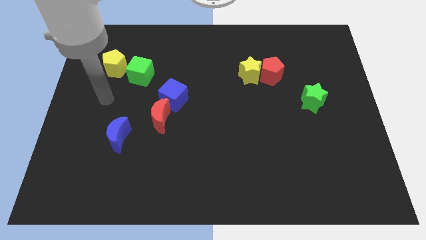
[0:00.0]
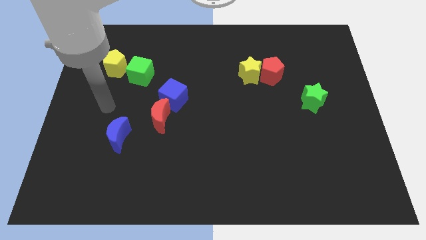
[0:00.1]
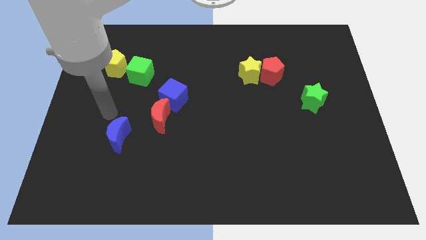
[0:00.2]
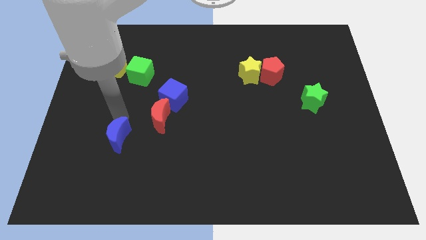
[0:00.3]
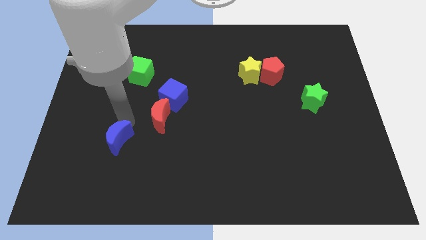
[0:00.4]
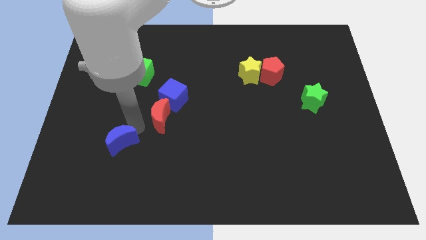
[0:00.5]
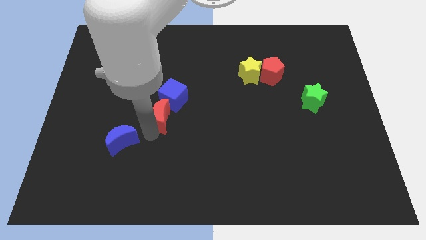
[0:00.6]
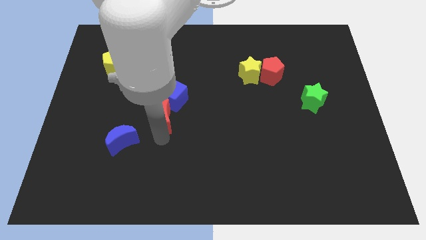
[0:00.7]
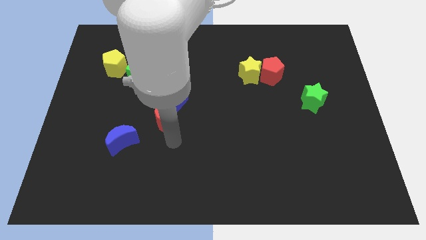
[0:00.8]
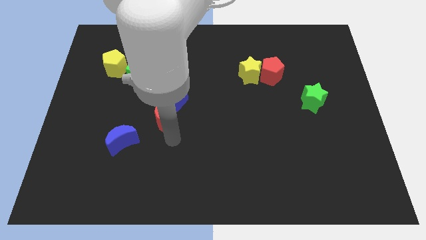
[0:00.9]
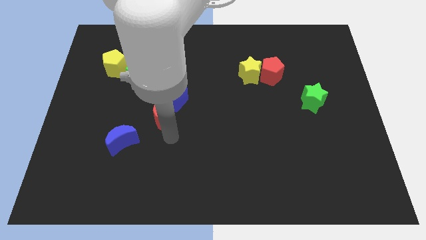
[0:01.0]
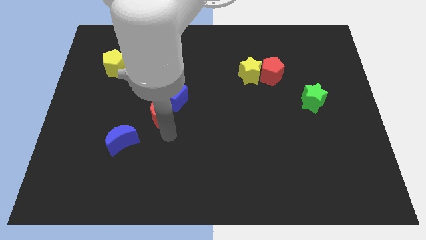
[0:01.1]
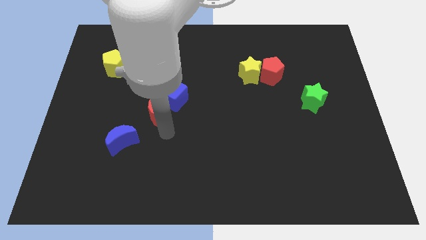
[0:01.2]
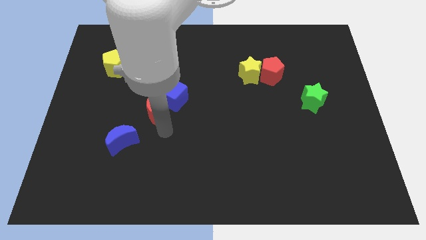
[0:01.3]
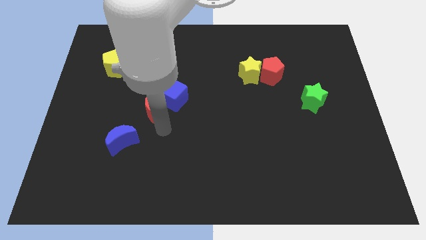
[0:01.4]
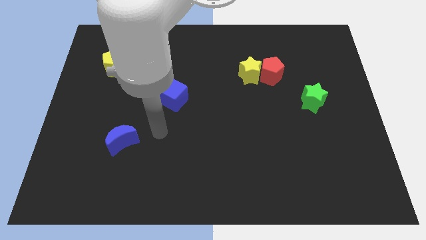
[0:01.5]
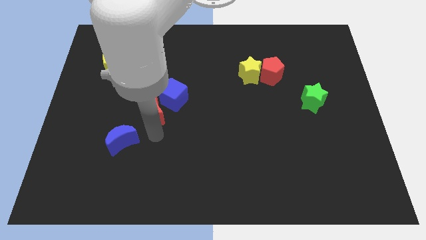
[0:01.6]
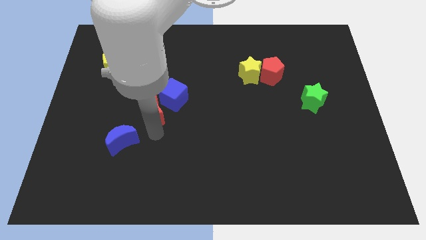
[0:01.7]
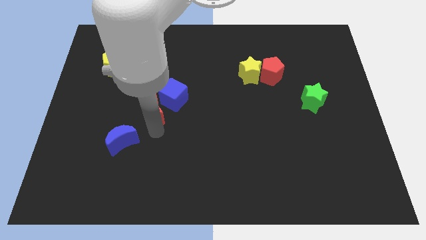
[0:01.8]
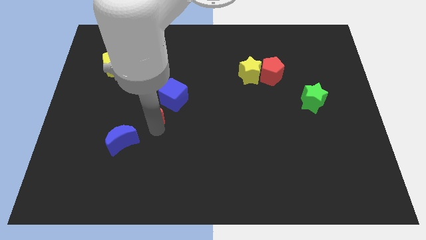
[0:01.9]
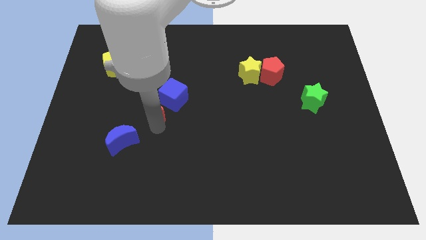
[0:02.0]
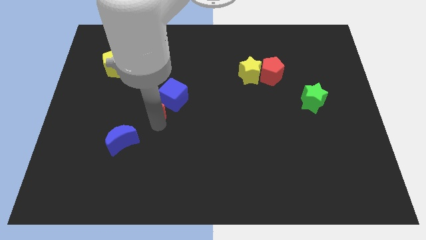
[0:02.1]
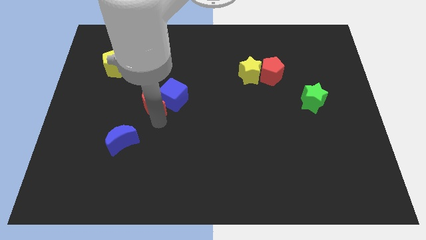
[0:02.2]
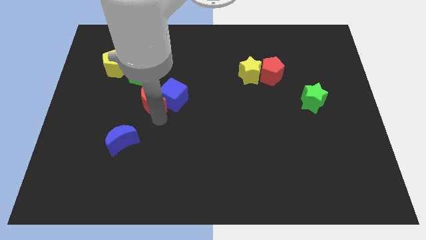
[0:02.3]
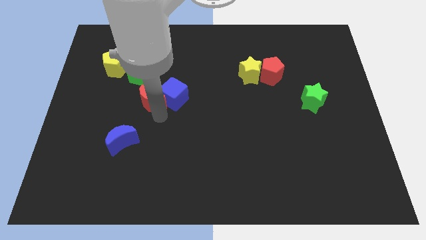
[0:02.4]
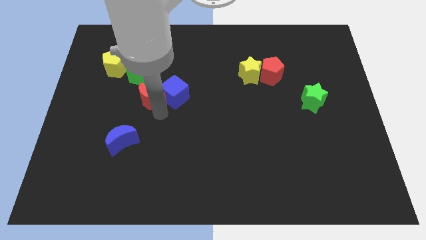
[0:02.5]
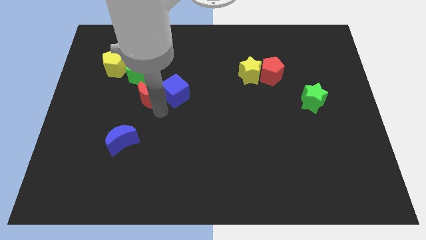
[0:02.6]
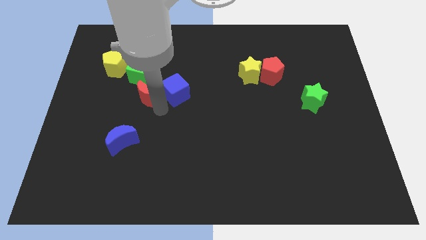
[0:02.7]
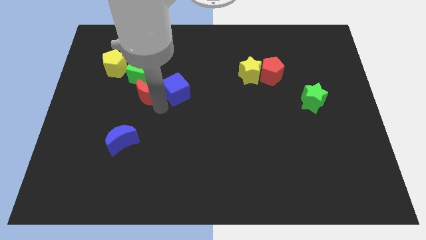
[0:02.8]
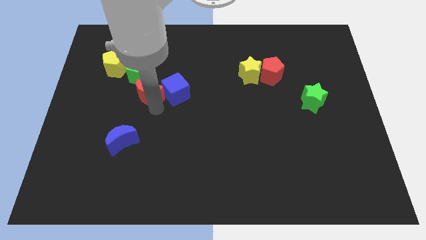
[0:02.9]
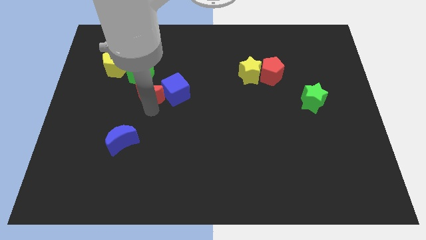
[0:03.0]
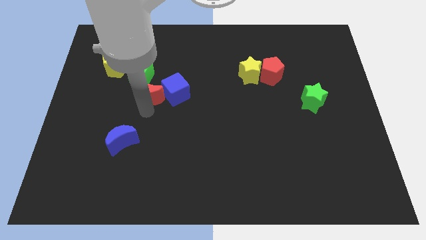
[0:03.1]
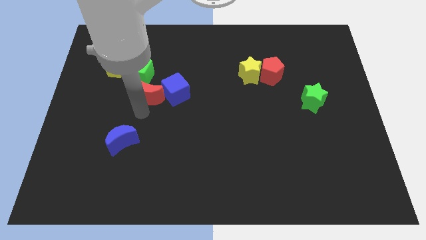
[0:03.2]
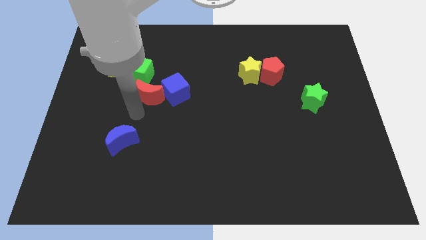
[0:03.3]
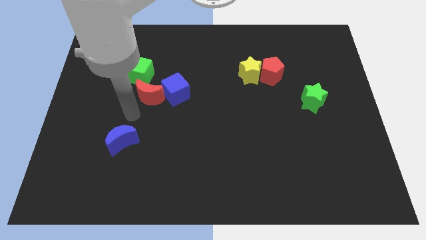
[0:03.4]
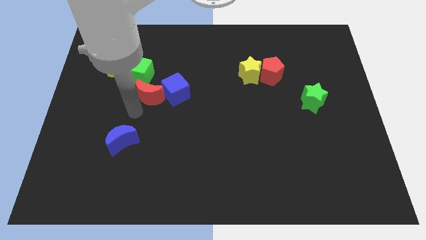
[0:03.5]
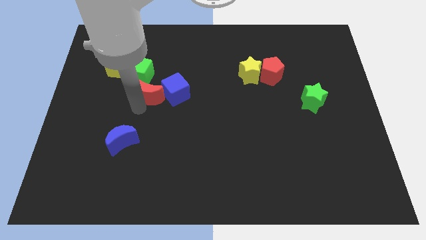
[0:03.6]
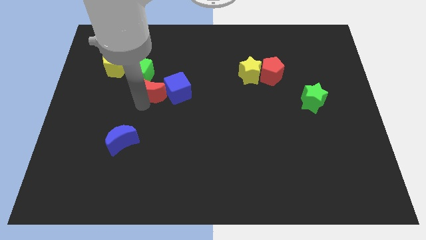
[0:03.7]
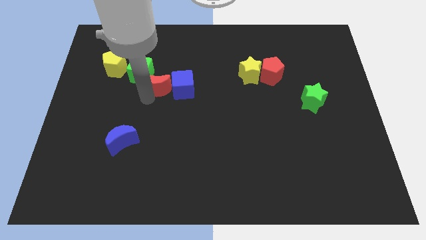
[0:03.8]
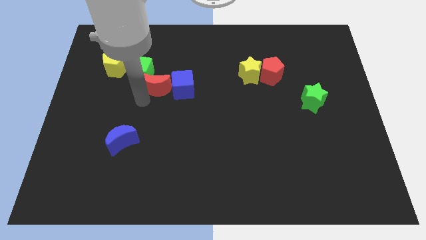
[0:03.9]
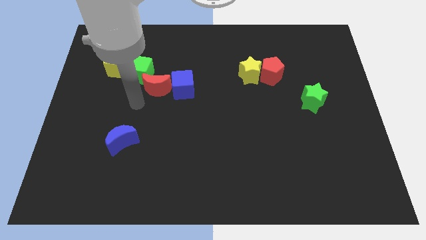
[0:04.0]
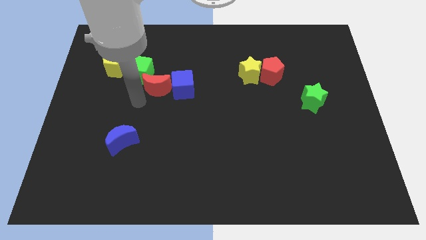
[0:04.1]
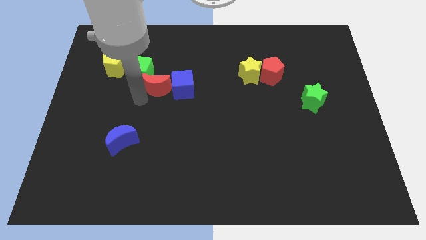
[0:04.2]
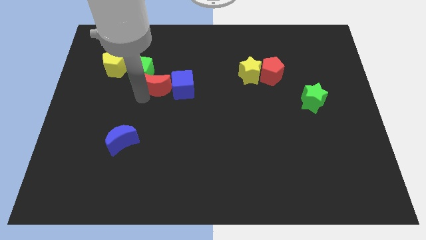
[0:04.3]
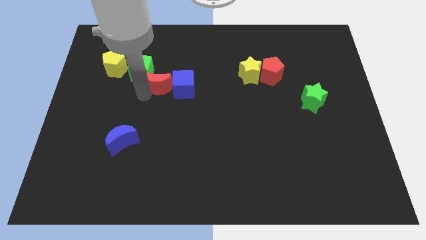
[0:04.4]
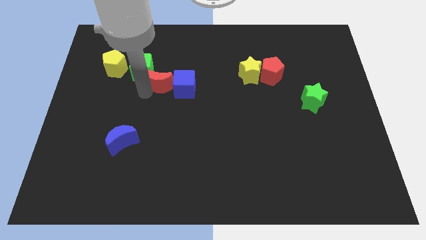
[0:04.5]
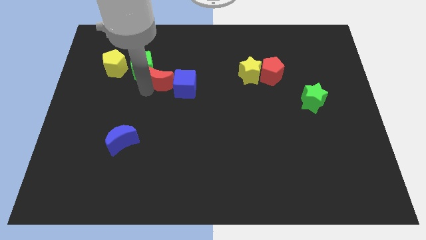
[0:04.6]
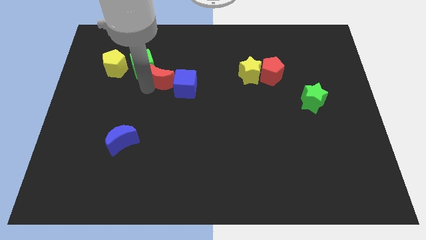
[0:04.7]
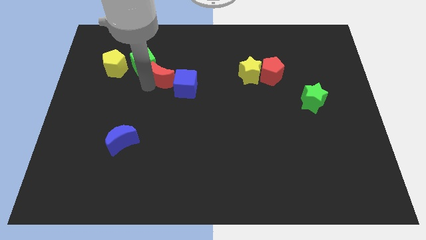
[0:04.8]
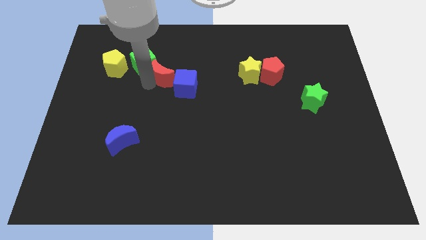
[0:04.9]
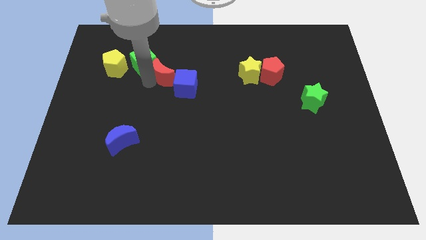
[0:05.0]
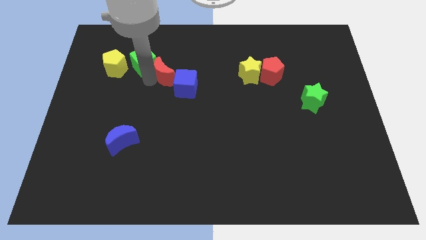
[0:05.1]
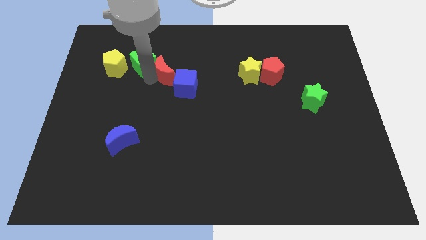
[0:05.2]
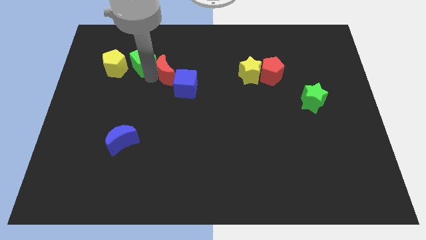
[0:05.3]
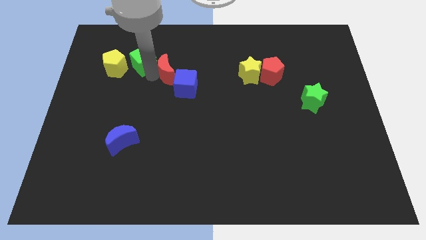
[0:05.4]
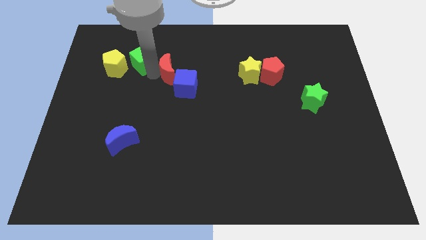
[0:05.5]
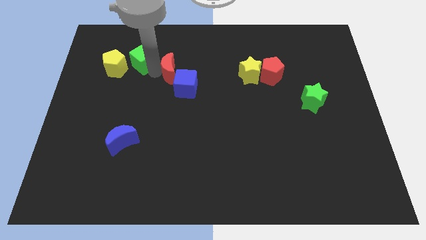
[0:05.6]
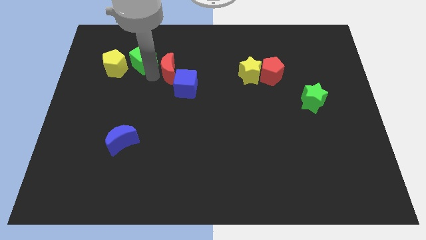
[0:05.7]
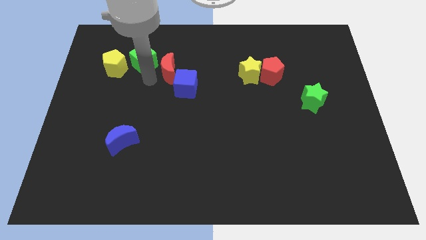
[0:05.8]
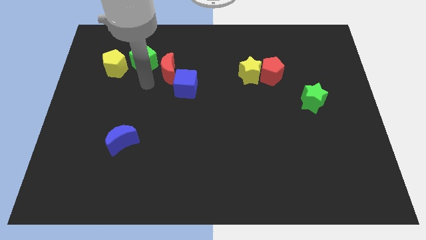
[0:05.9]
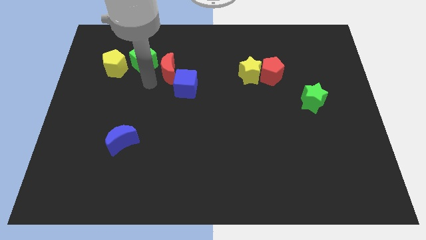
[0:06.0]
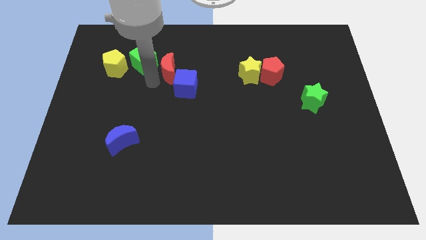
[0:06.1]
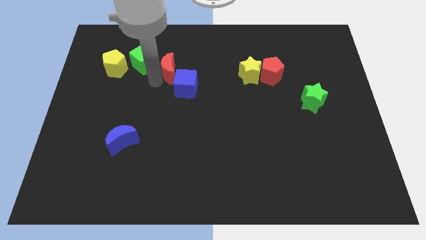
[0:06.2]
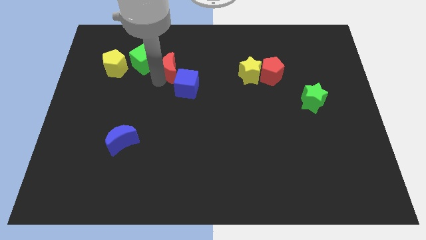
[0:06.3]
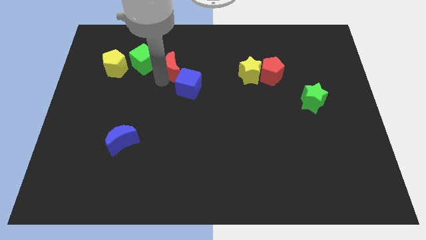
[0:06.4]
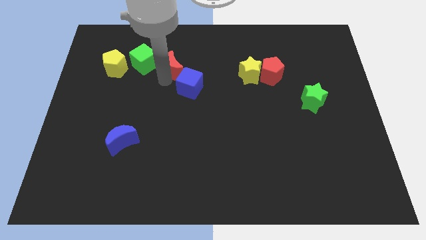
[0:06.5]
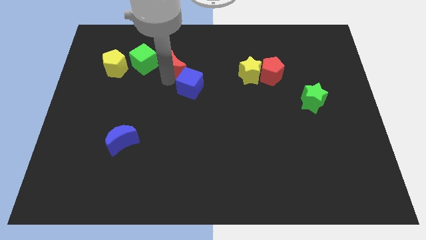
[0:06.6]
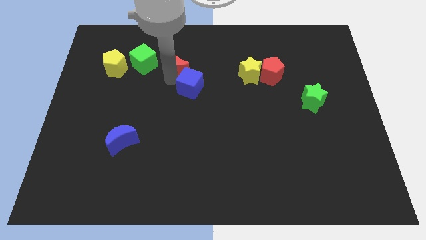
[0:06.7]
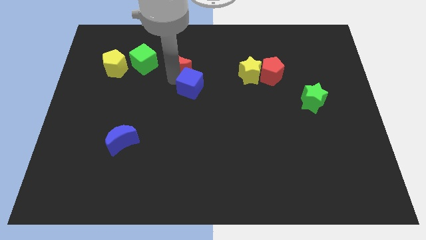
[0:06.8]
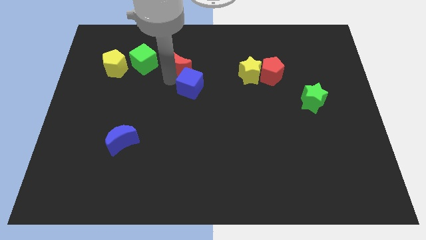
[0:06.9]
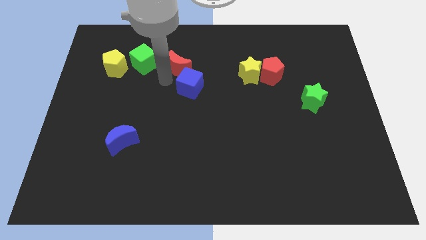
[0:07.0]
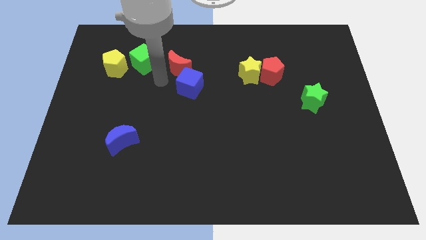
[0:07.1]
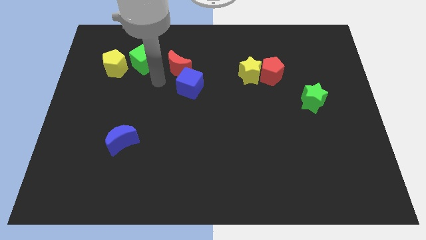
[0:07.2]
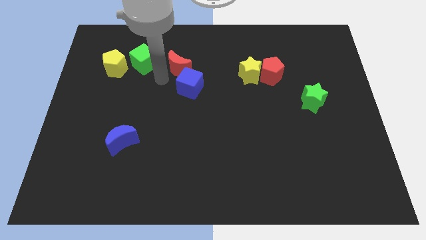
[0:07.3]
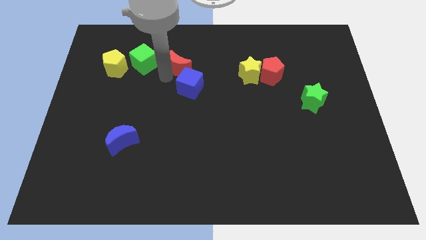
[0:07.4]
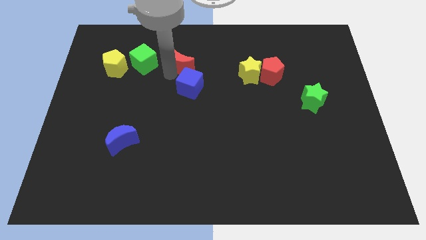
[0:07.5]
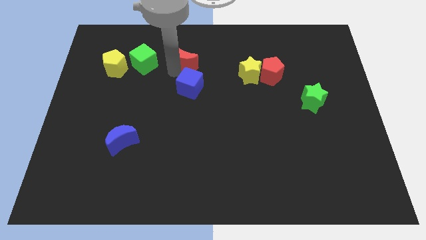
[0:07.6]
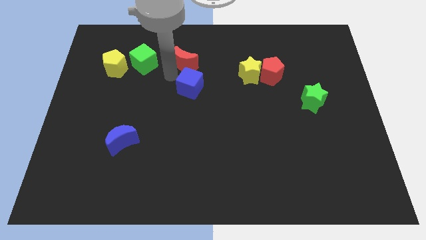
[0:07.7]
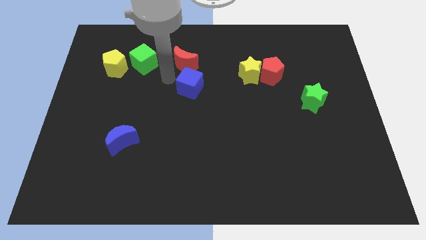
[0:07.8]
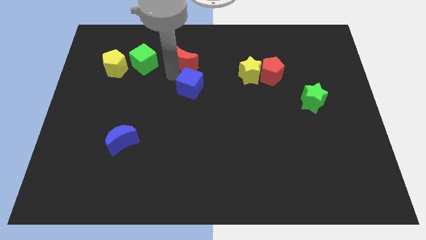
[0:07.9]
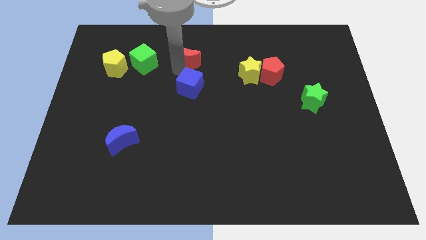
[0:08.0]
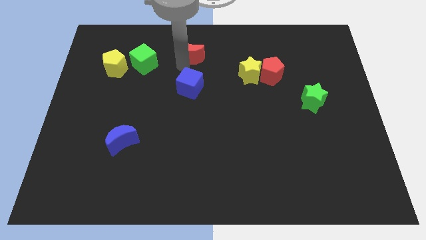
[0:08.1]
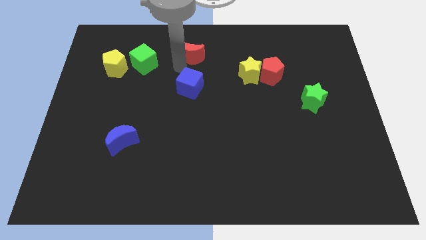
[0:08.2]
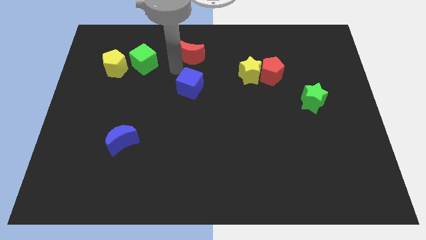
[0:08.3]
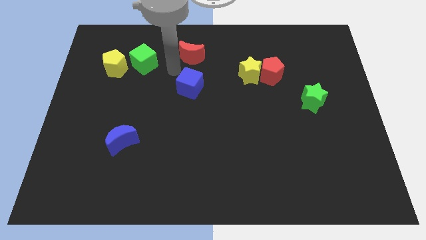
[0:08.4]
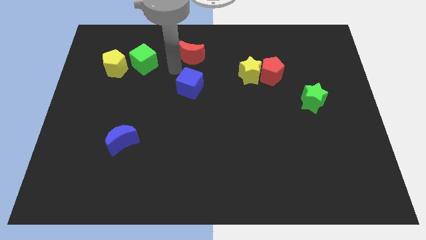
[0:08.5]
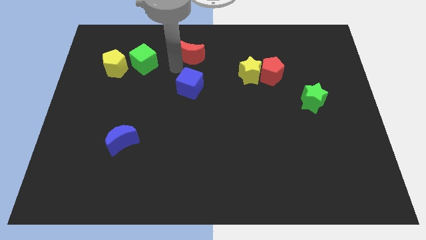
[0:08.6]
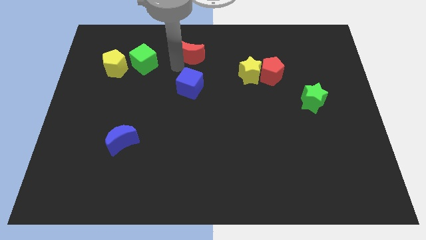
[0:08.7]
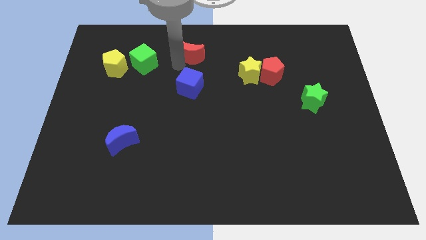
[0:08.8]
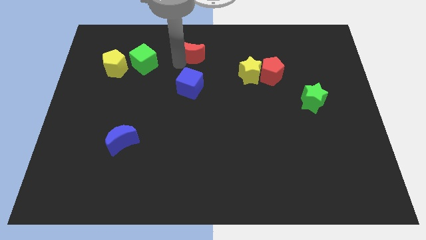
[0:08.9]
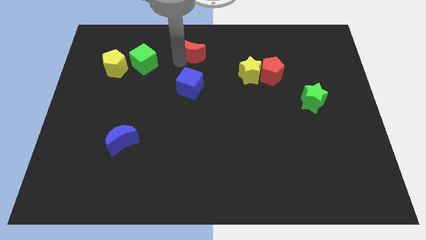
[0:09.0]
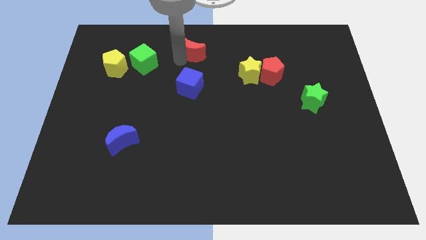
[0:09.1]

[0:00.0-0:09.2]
push the red moon to the top
